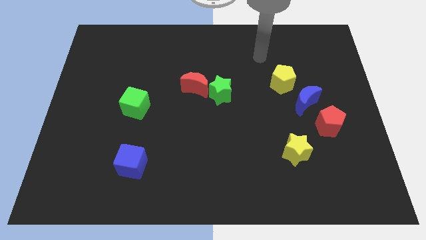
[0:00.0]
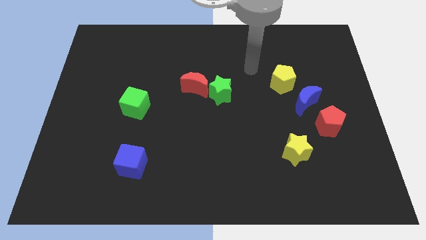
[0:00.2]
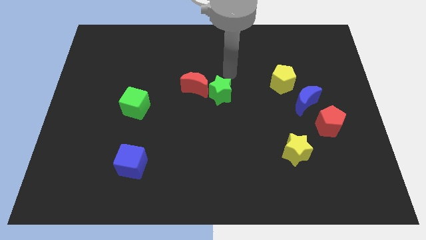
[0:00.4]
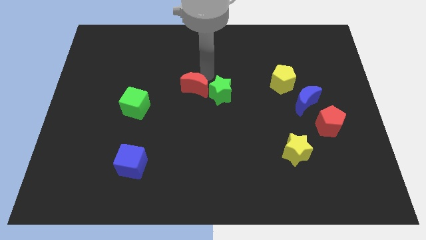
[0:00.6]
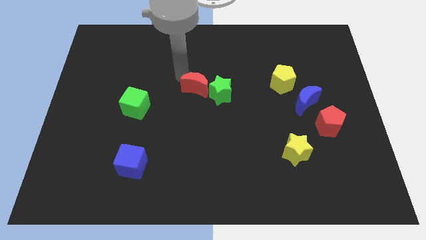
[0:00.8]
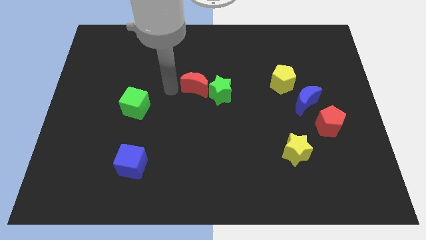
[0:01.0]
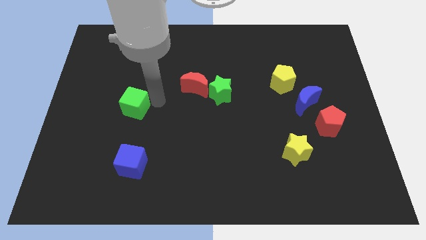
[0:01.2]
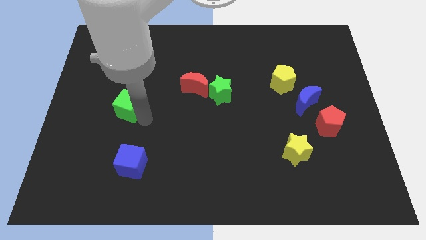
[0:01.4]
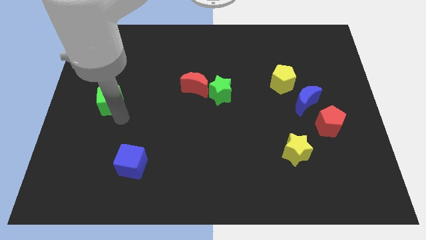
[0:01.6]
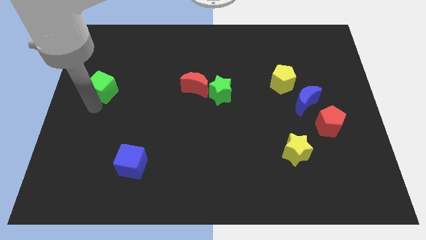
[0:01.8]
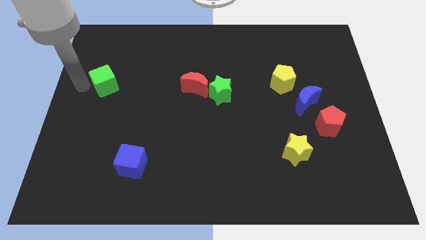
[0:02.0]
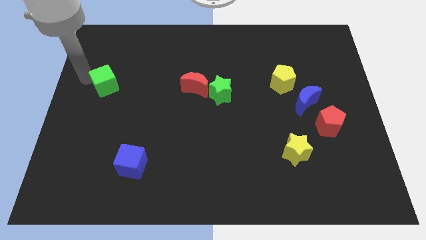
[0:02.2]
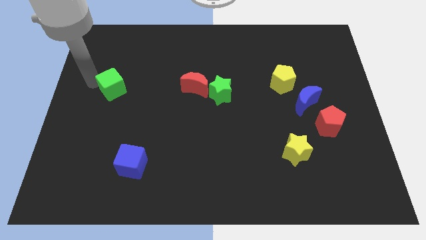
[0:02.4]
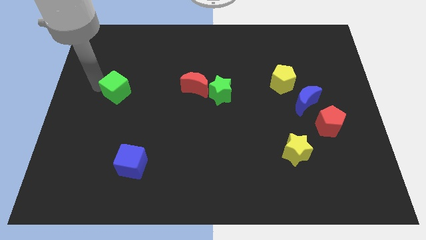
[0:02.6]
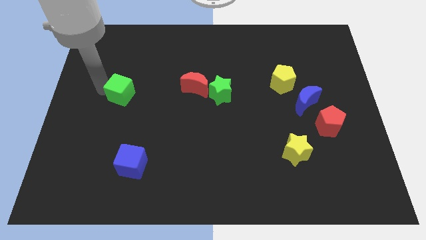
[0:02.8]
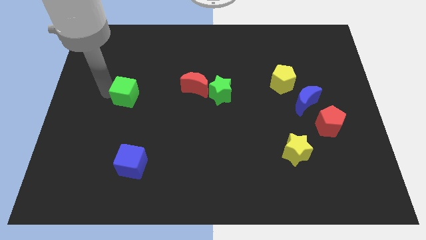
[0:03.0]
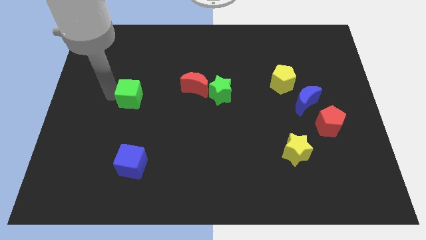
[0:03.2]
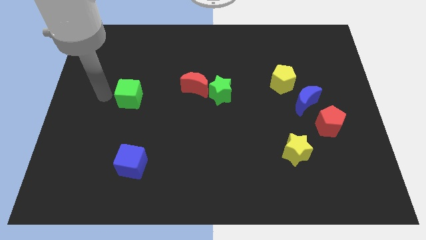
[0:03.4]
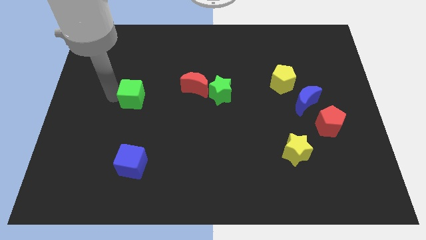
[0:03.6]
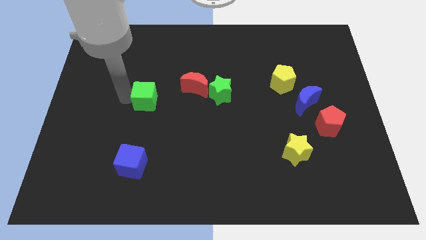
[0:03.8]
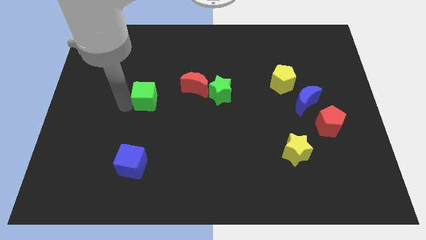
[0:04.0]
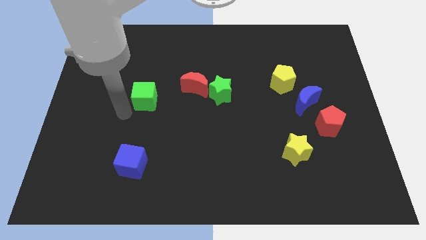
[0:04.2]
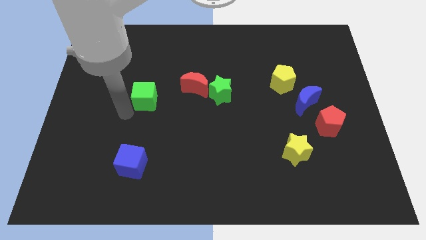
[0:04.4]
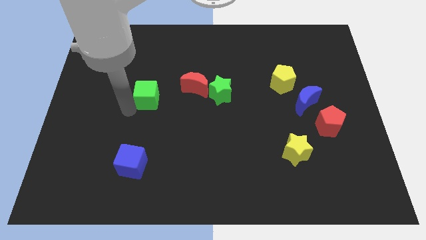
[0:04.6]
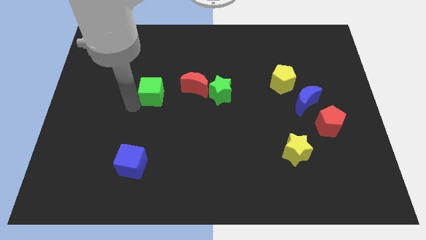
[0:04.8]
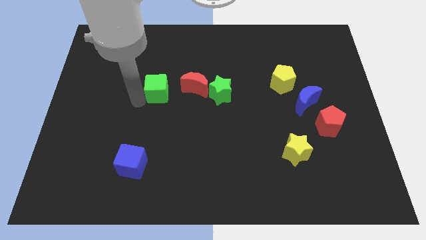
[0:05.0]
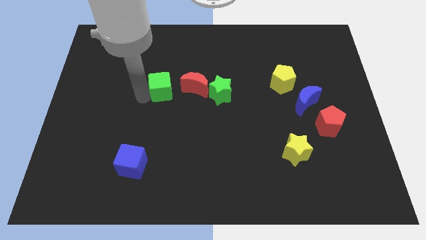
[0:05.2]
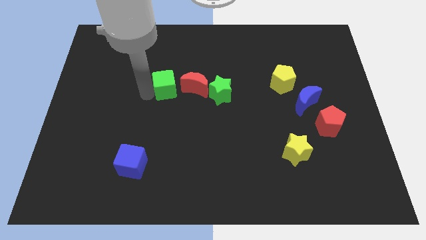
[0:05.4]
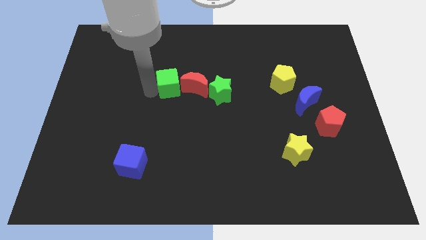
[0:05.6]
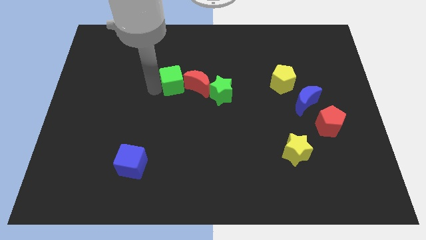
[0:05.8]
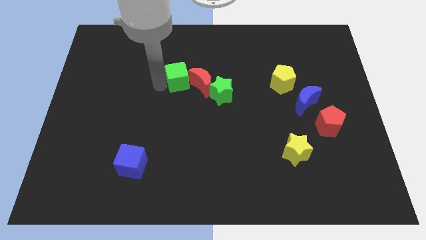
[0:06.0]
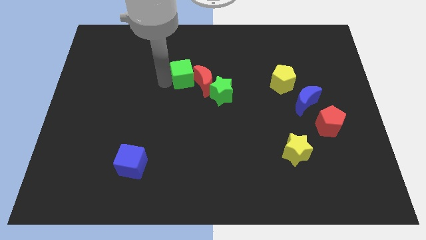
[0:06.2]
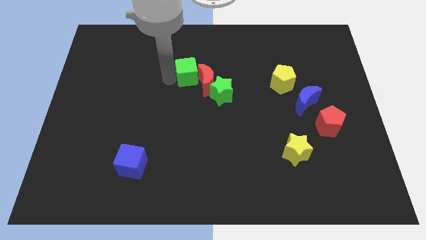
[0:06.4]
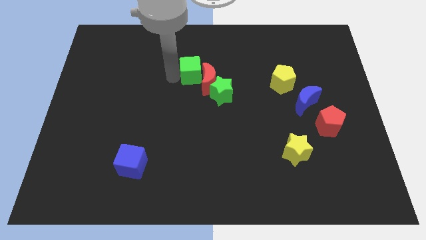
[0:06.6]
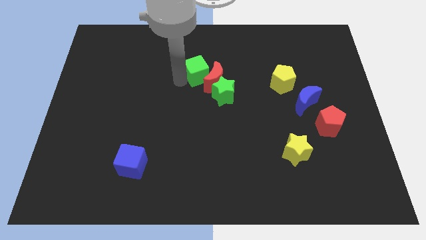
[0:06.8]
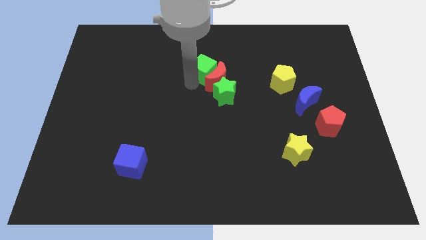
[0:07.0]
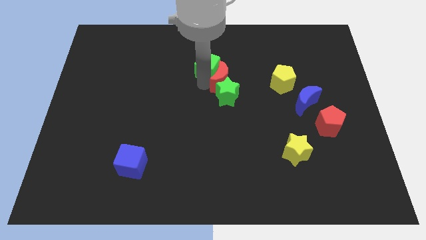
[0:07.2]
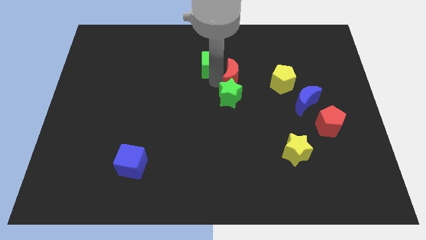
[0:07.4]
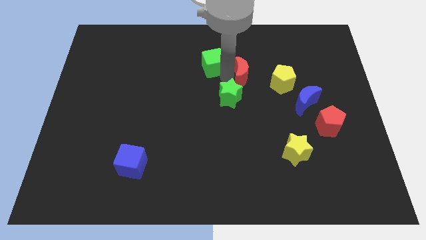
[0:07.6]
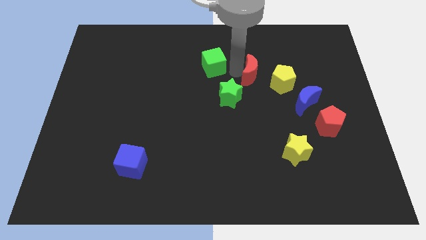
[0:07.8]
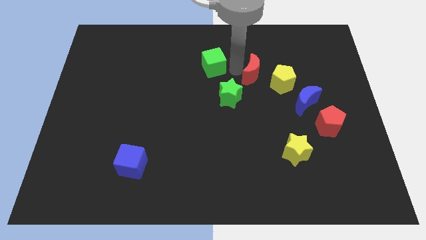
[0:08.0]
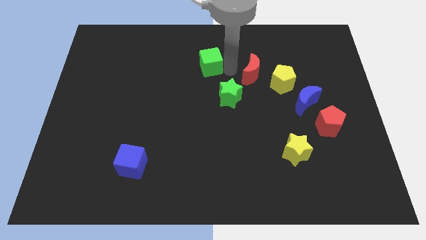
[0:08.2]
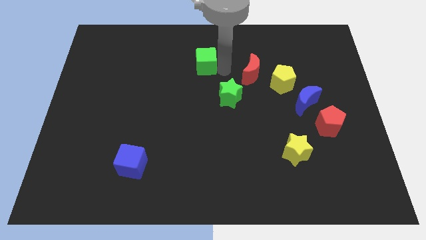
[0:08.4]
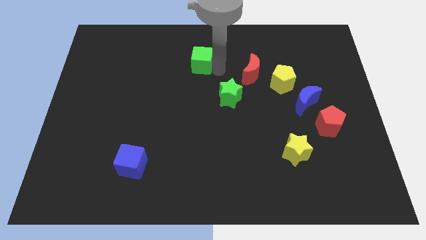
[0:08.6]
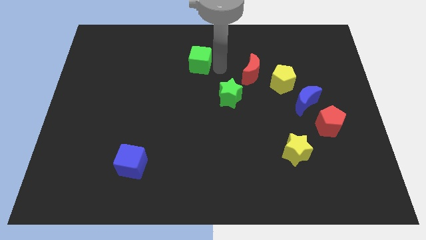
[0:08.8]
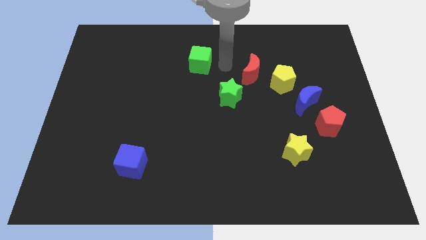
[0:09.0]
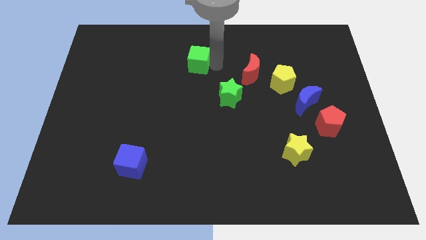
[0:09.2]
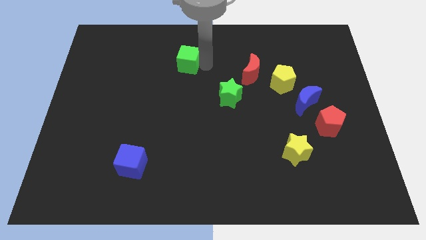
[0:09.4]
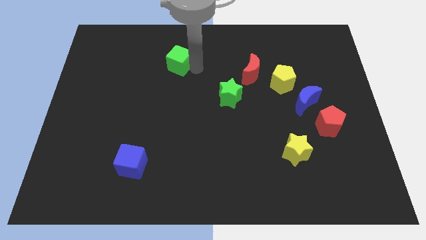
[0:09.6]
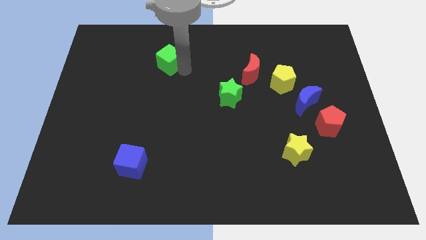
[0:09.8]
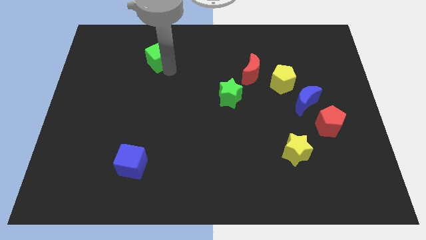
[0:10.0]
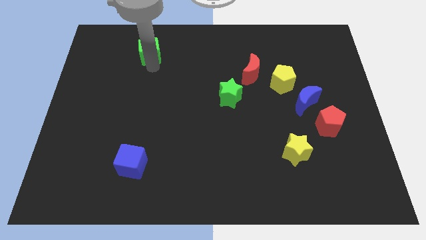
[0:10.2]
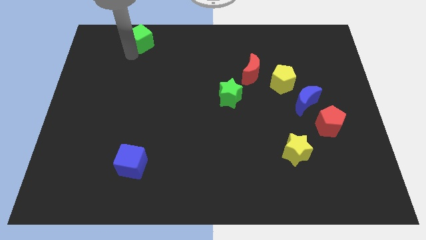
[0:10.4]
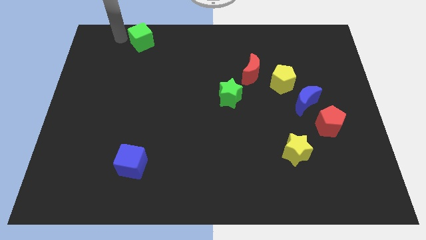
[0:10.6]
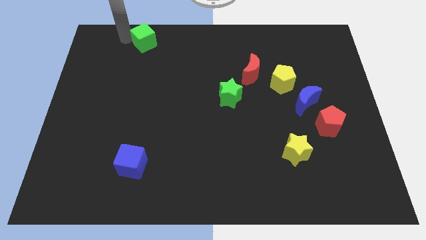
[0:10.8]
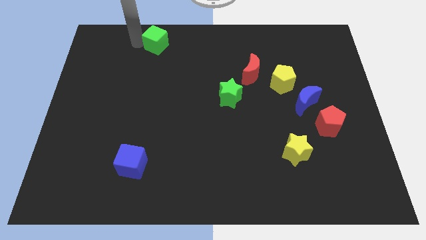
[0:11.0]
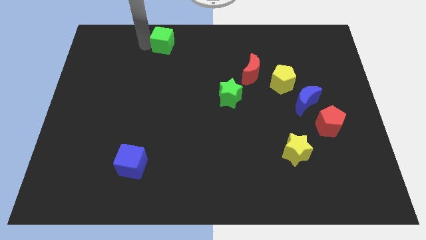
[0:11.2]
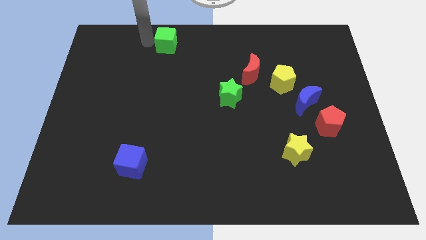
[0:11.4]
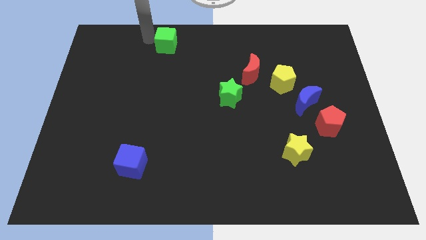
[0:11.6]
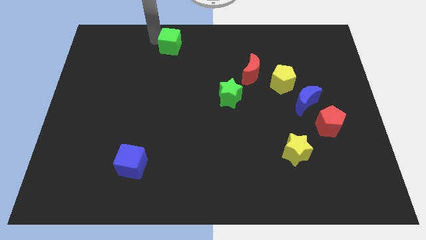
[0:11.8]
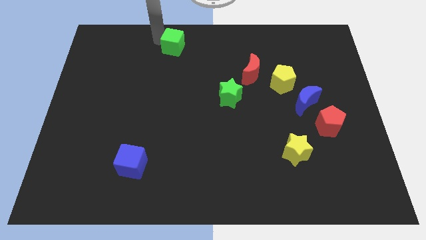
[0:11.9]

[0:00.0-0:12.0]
put the green cube to the top side
